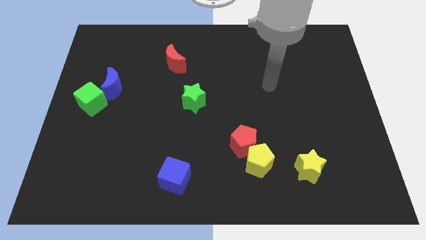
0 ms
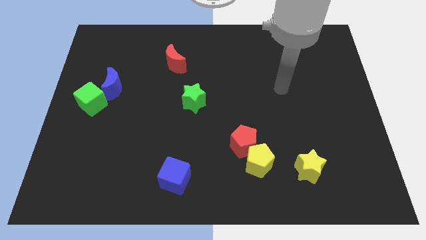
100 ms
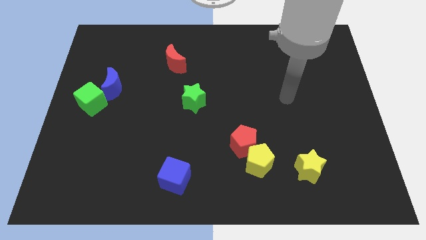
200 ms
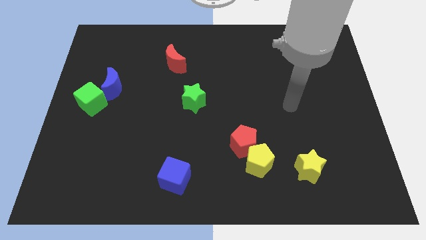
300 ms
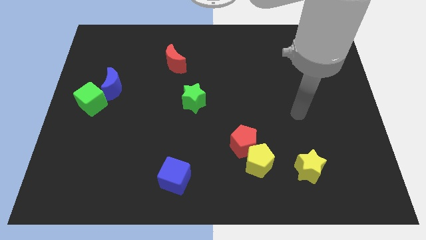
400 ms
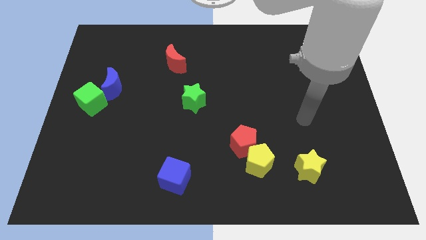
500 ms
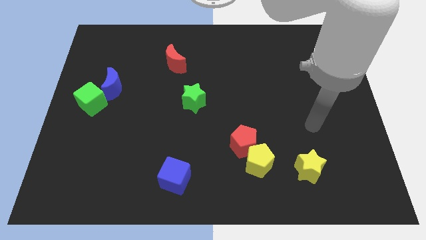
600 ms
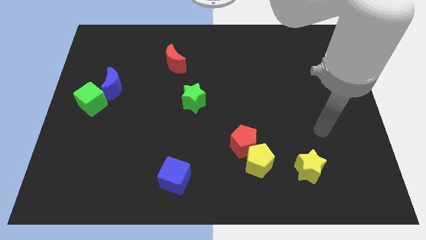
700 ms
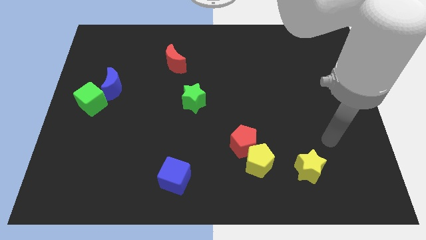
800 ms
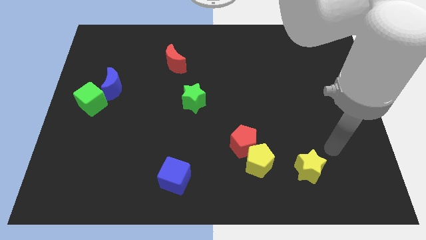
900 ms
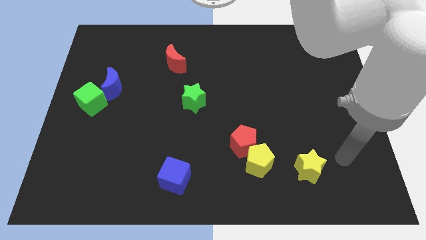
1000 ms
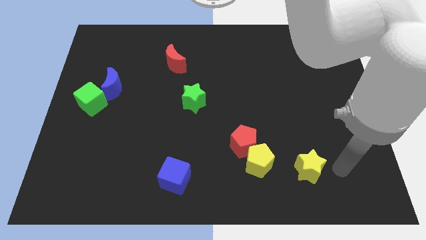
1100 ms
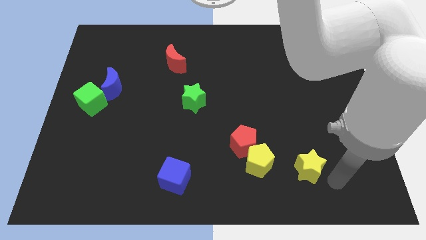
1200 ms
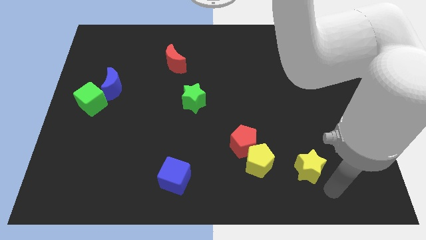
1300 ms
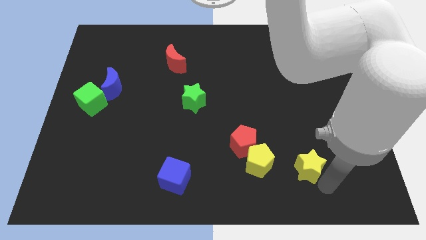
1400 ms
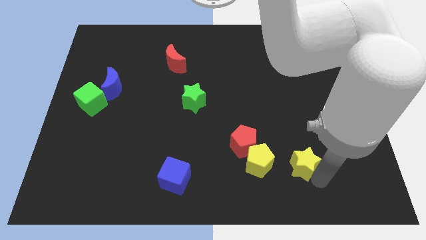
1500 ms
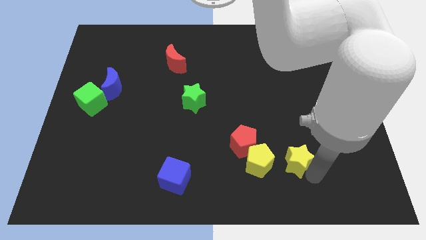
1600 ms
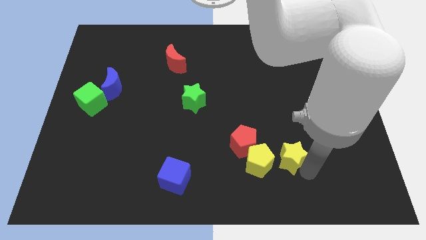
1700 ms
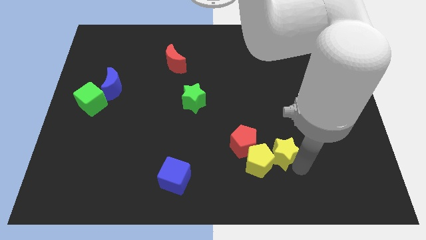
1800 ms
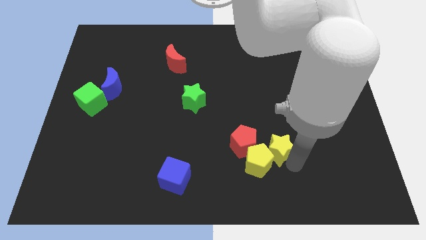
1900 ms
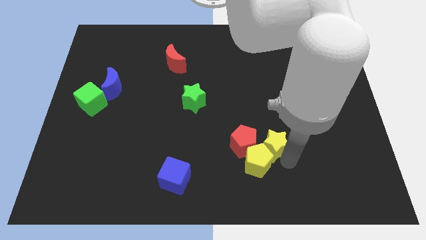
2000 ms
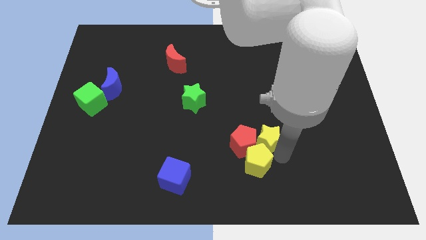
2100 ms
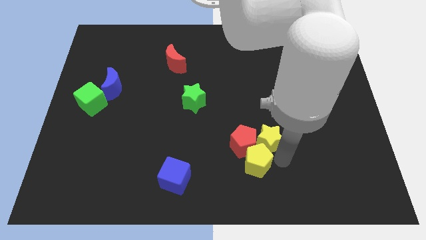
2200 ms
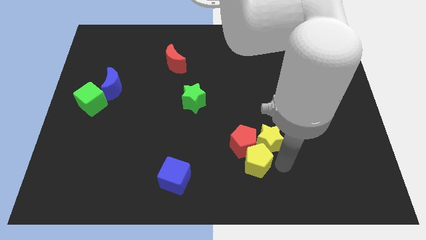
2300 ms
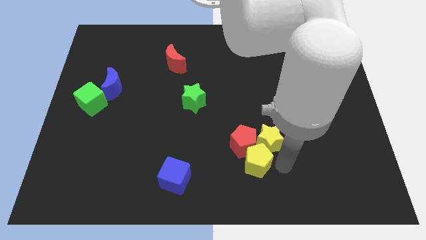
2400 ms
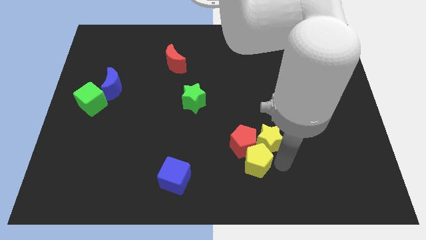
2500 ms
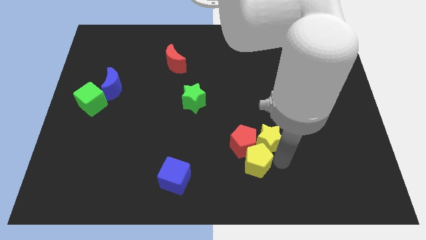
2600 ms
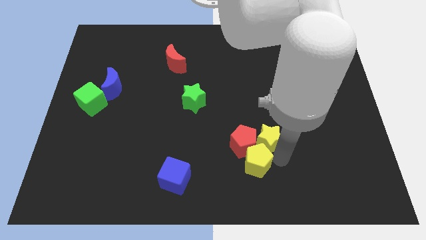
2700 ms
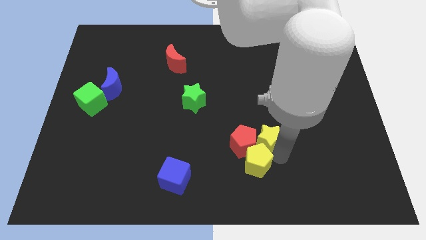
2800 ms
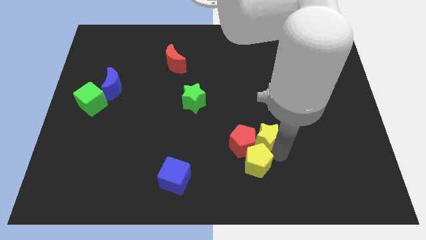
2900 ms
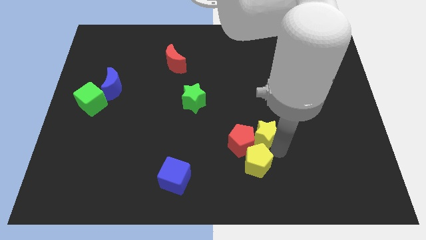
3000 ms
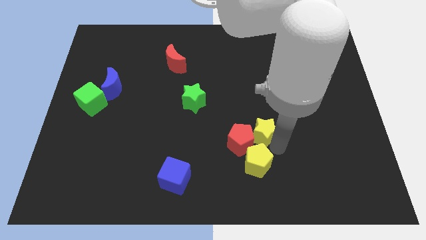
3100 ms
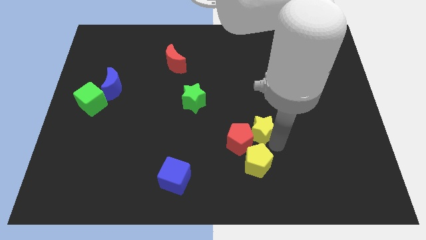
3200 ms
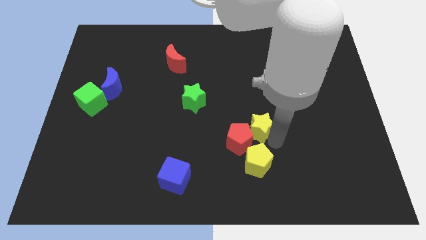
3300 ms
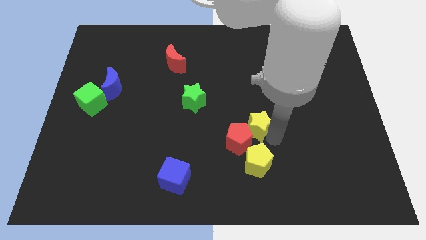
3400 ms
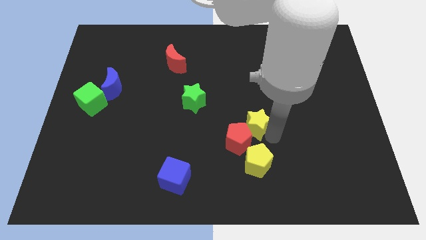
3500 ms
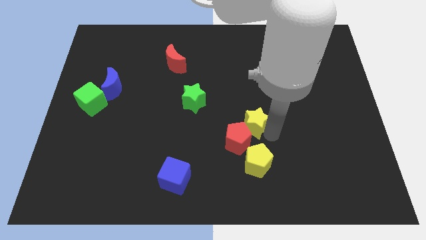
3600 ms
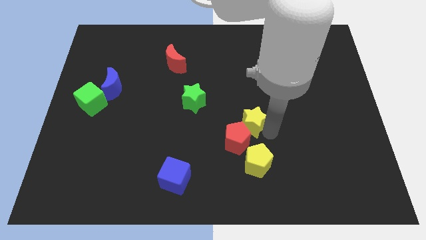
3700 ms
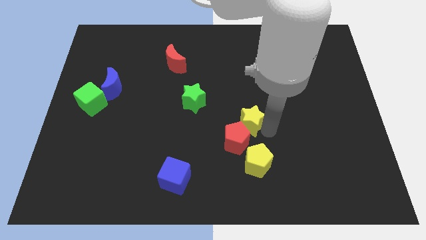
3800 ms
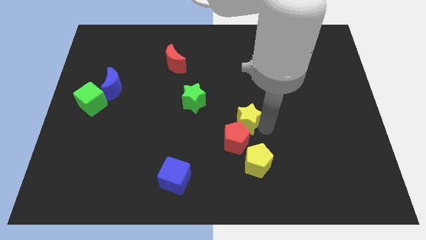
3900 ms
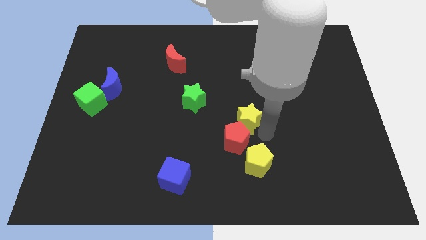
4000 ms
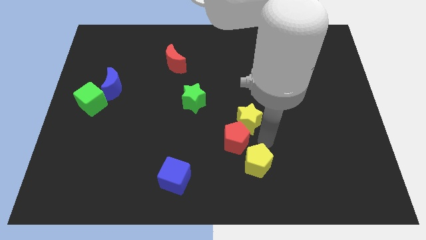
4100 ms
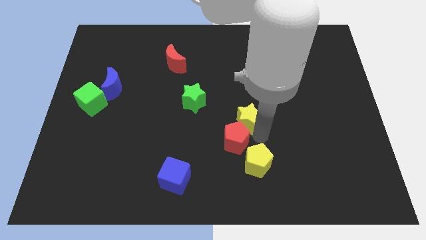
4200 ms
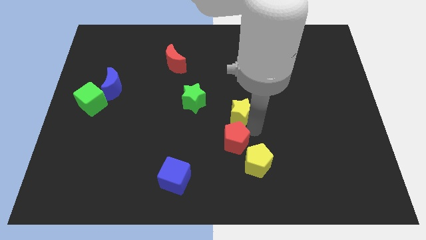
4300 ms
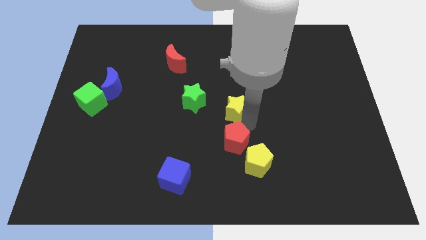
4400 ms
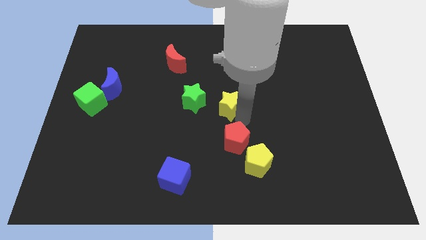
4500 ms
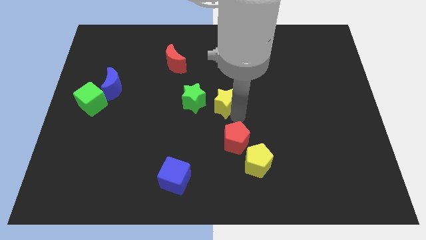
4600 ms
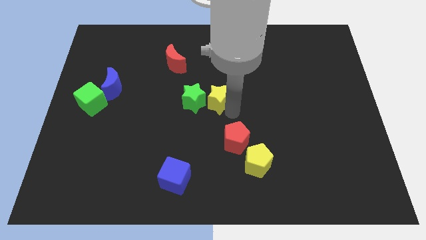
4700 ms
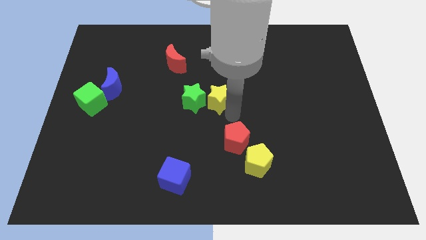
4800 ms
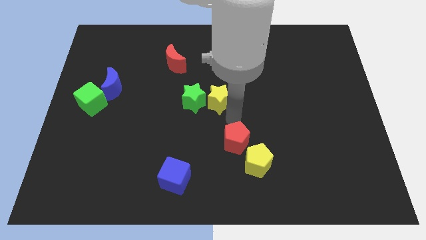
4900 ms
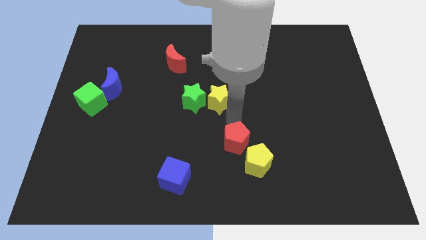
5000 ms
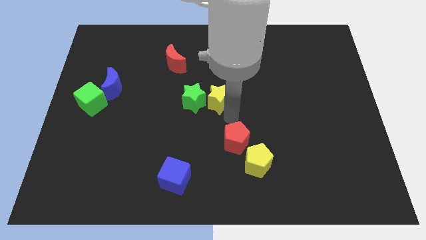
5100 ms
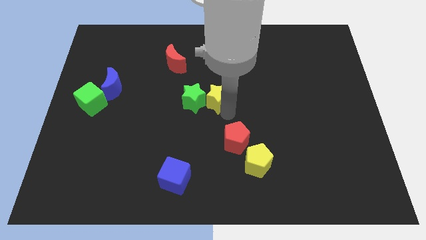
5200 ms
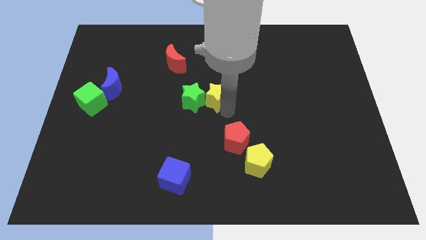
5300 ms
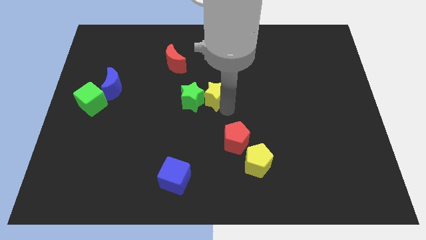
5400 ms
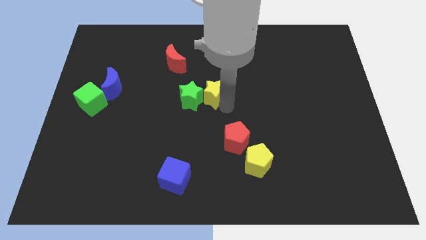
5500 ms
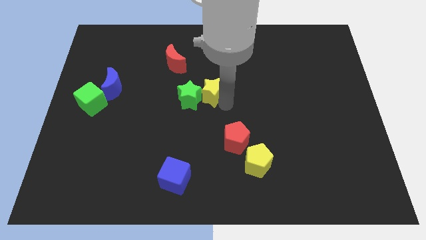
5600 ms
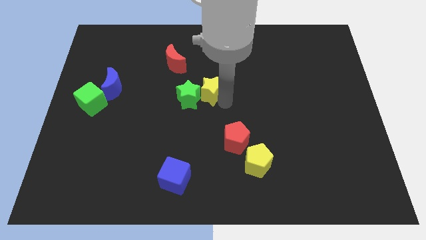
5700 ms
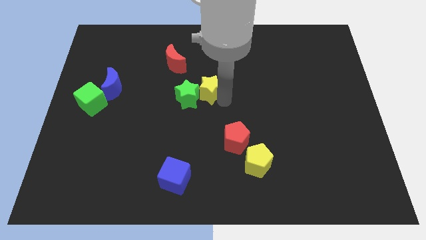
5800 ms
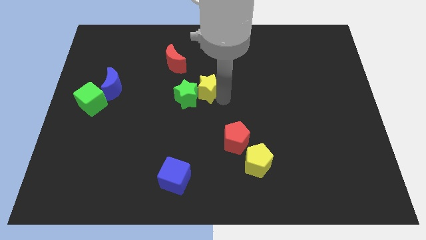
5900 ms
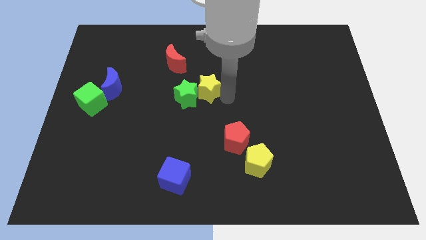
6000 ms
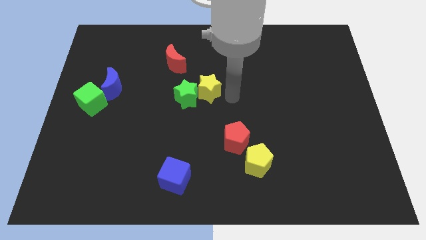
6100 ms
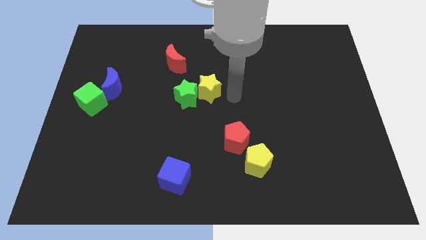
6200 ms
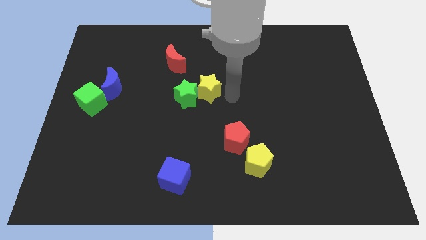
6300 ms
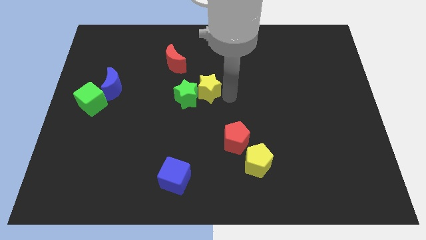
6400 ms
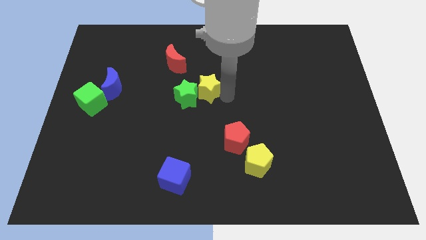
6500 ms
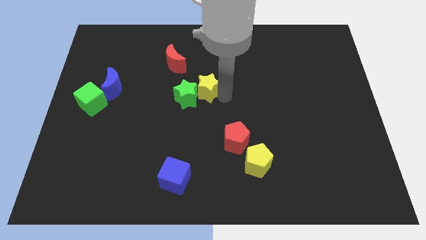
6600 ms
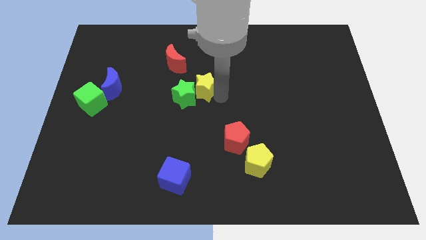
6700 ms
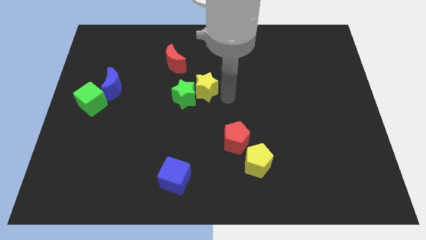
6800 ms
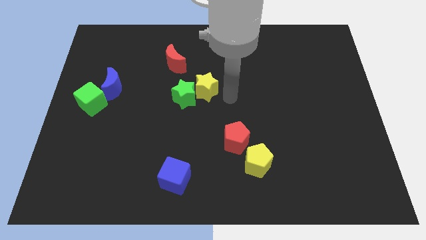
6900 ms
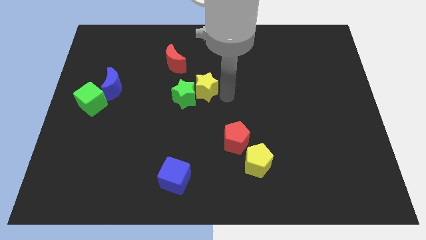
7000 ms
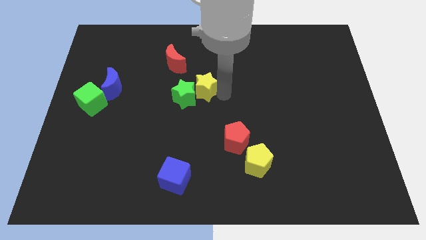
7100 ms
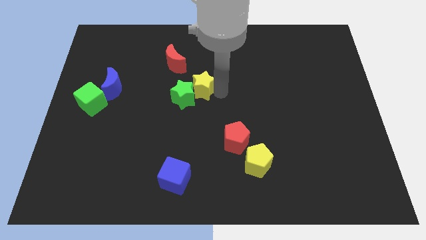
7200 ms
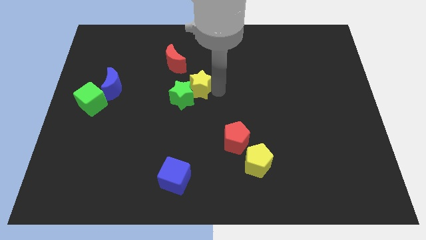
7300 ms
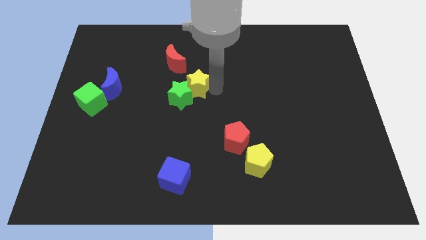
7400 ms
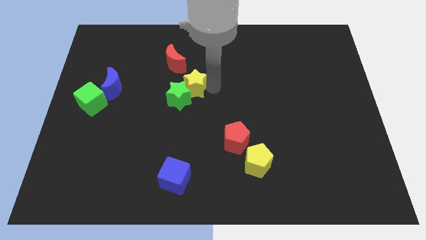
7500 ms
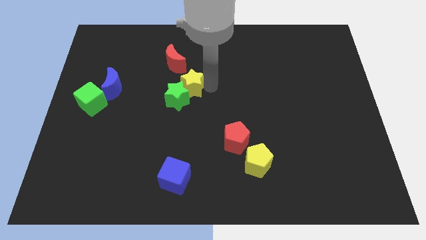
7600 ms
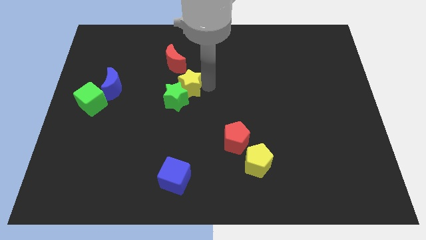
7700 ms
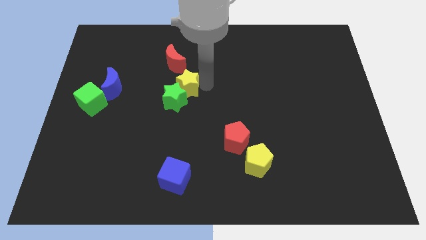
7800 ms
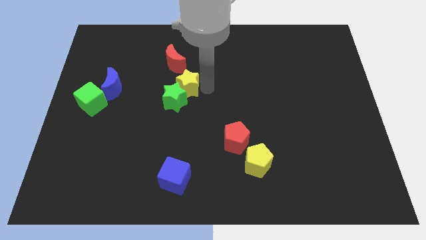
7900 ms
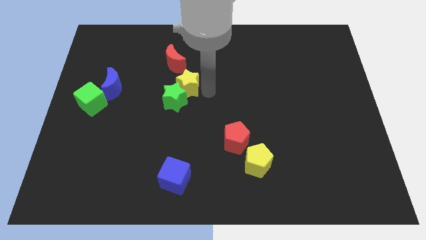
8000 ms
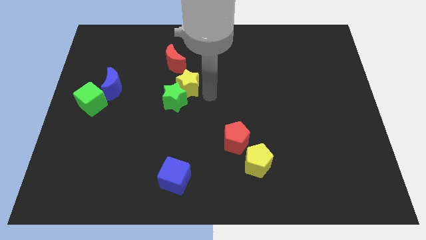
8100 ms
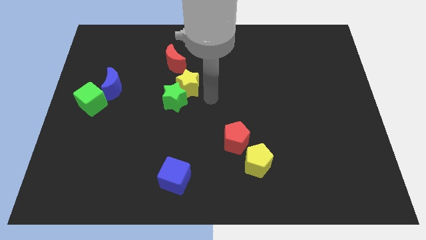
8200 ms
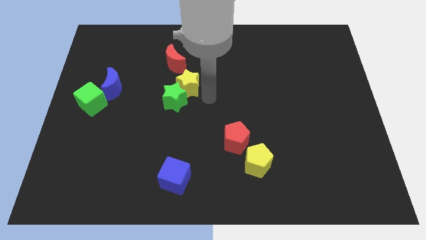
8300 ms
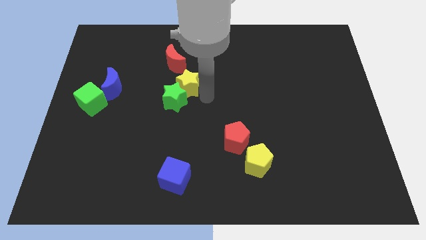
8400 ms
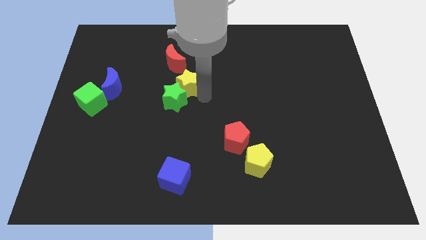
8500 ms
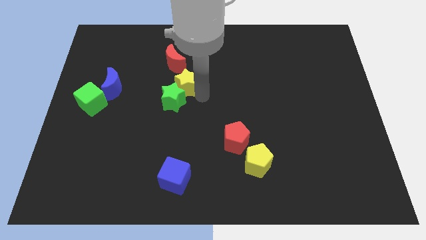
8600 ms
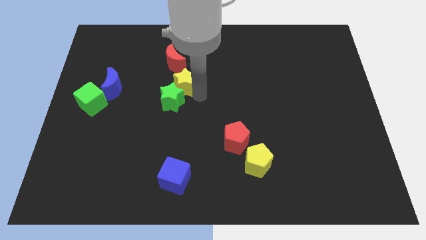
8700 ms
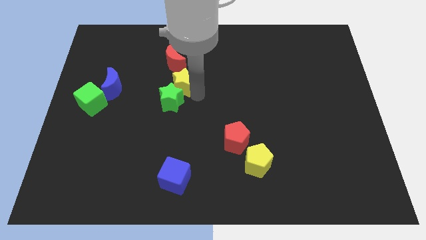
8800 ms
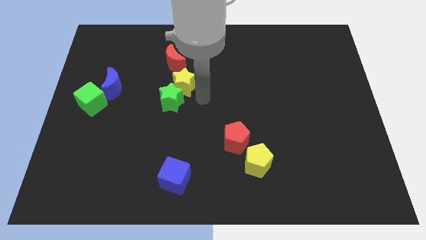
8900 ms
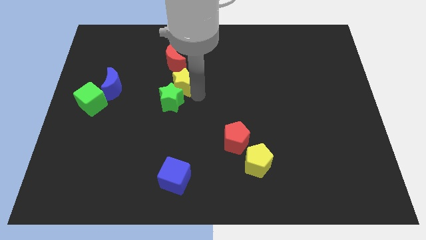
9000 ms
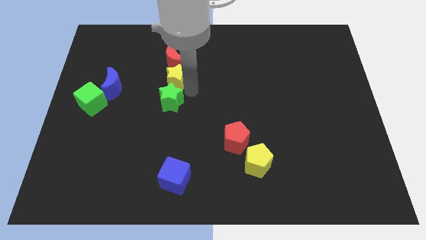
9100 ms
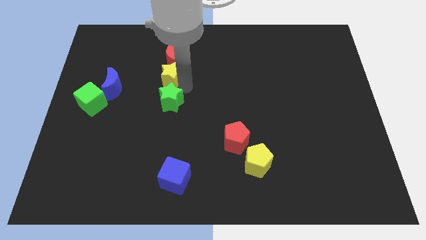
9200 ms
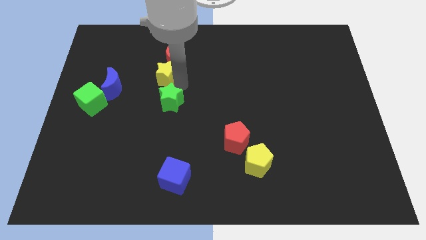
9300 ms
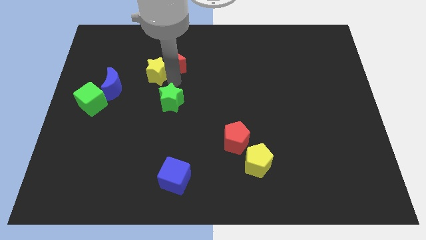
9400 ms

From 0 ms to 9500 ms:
slide the yellow star just left of the red moon
